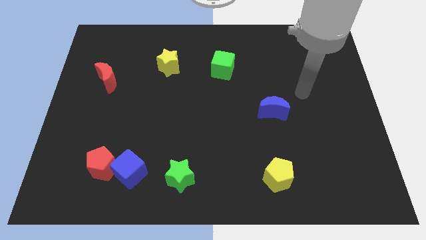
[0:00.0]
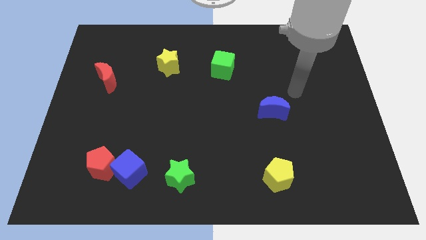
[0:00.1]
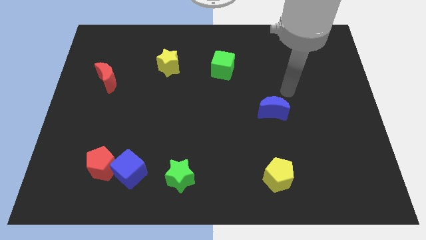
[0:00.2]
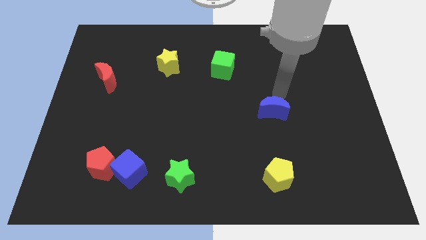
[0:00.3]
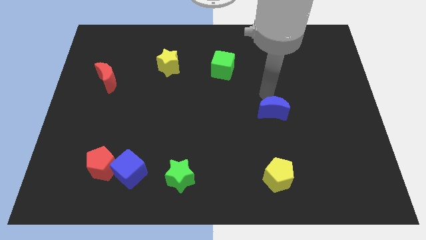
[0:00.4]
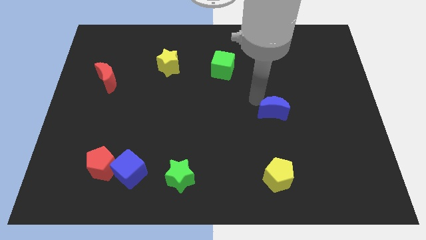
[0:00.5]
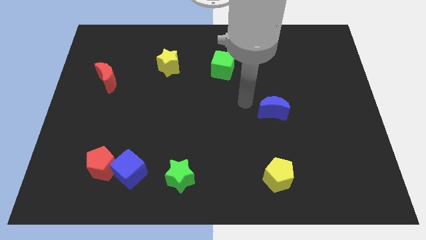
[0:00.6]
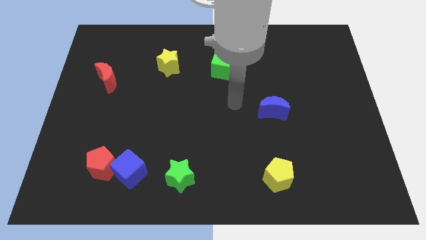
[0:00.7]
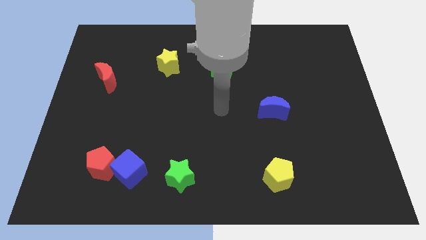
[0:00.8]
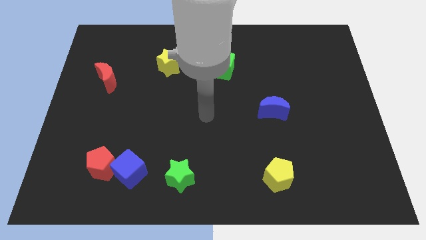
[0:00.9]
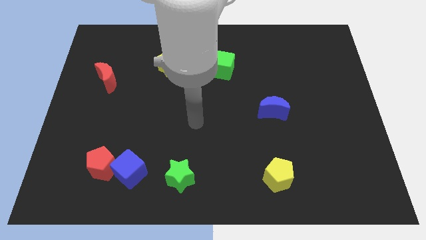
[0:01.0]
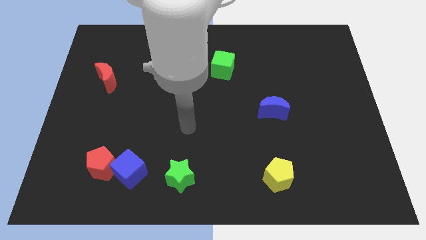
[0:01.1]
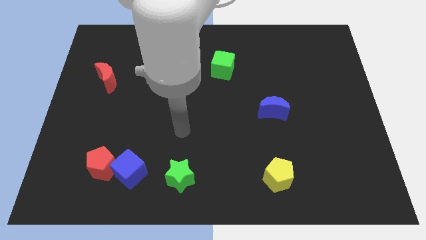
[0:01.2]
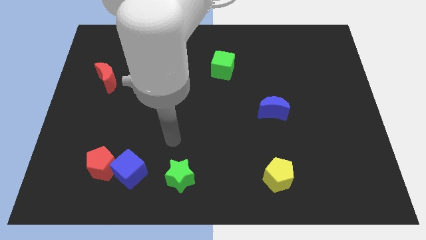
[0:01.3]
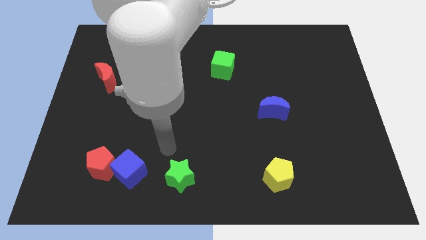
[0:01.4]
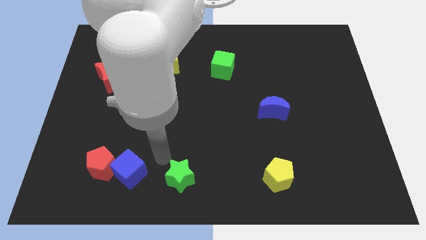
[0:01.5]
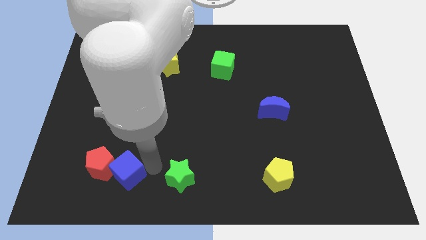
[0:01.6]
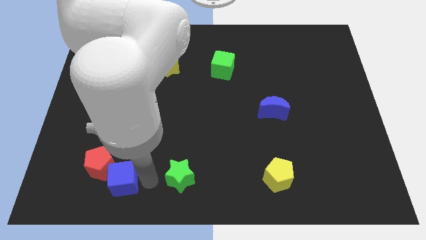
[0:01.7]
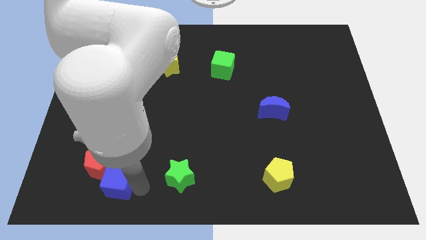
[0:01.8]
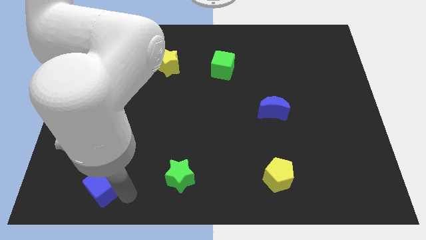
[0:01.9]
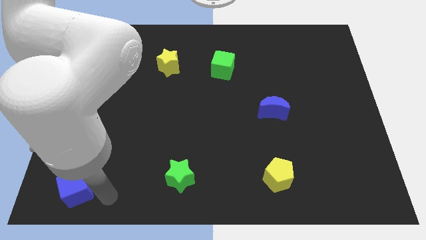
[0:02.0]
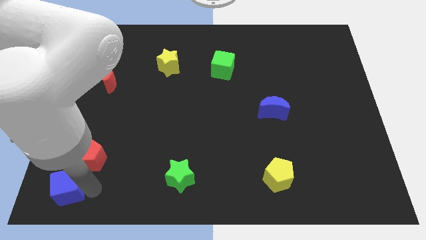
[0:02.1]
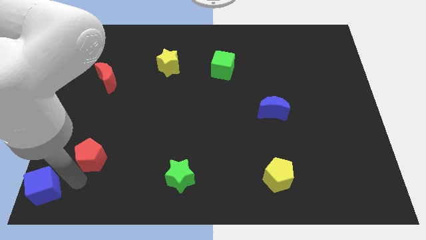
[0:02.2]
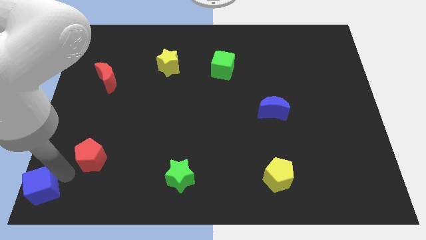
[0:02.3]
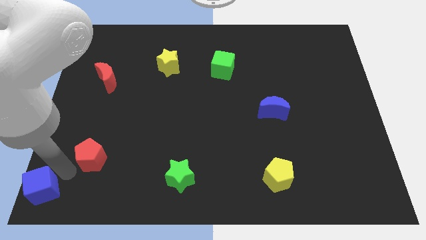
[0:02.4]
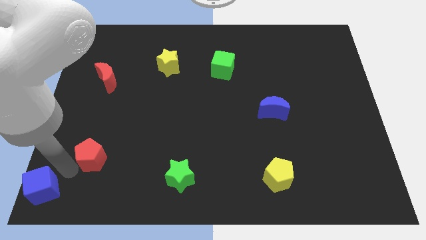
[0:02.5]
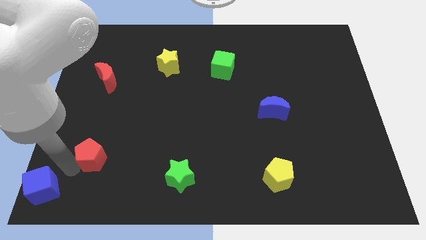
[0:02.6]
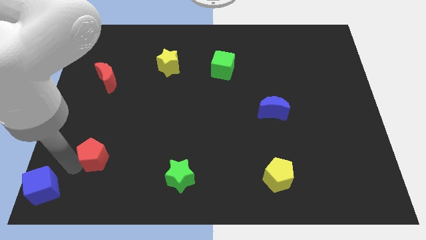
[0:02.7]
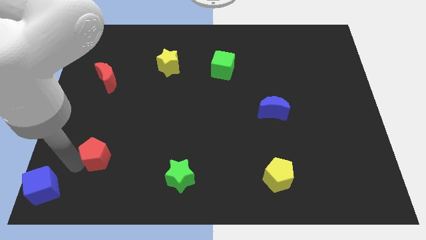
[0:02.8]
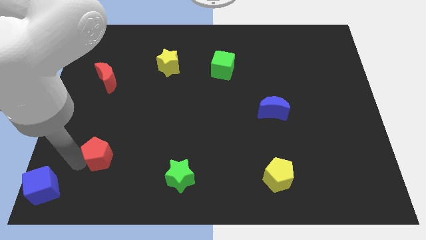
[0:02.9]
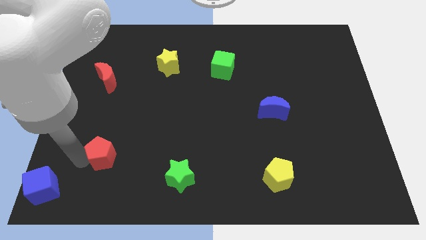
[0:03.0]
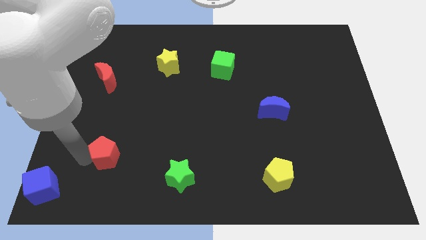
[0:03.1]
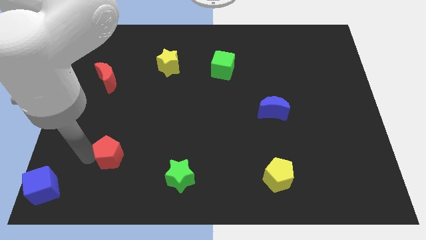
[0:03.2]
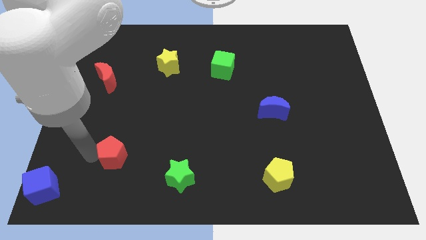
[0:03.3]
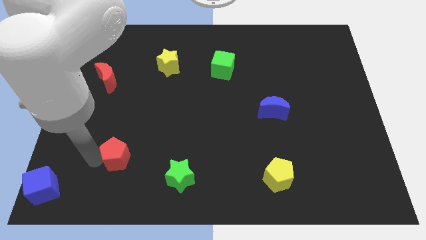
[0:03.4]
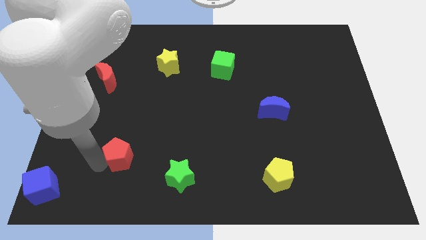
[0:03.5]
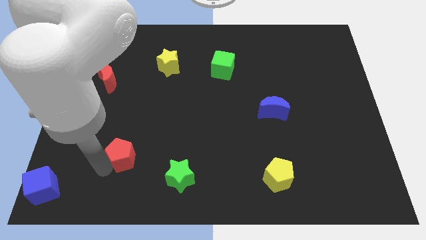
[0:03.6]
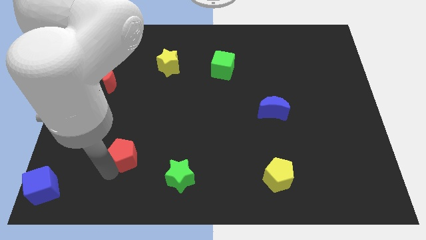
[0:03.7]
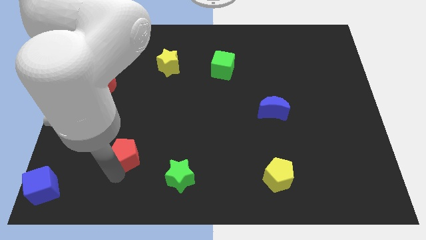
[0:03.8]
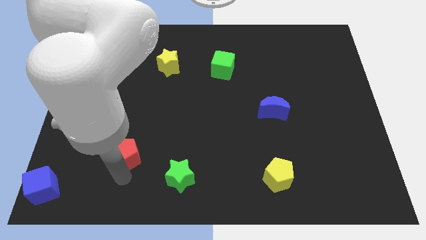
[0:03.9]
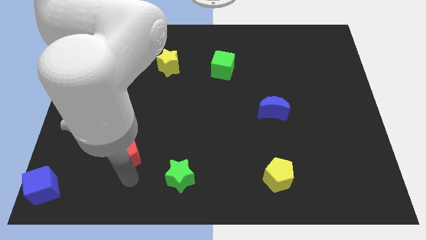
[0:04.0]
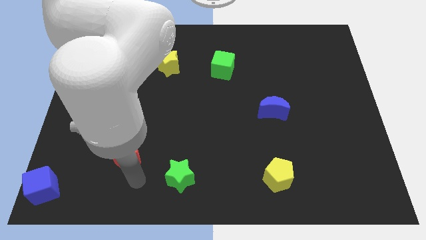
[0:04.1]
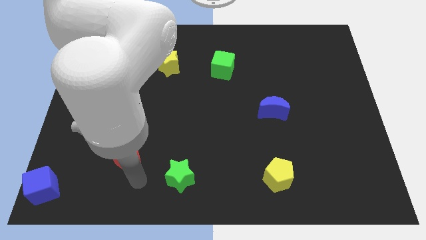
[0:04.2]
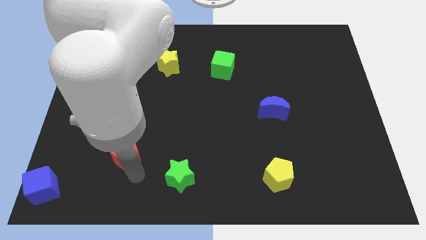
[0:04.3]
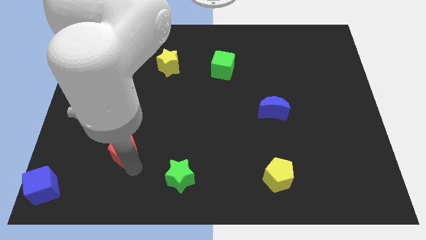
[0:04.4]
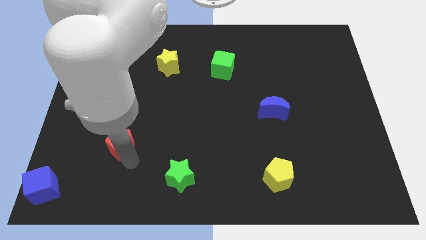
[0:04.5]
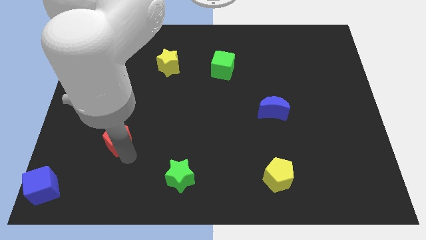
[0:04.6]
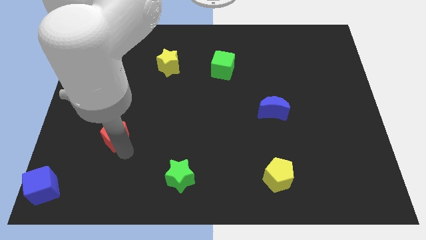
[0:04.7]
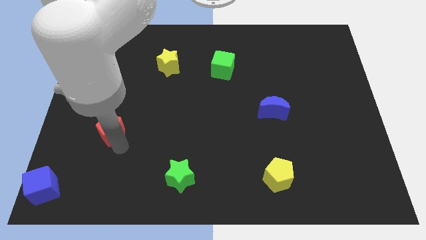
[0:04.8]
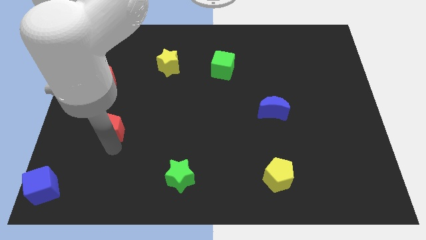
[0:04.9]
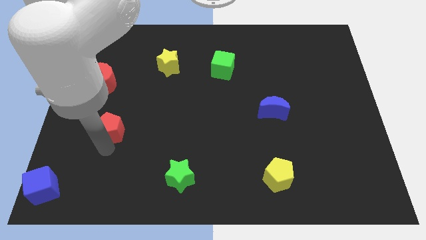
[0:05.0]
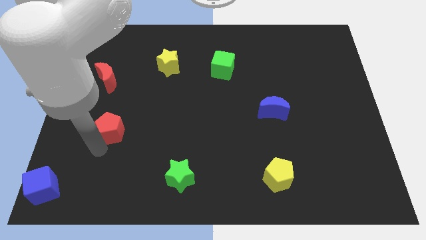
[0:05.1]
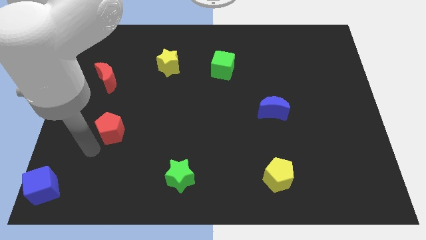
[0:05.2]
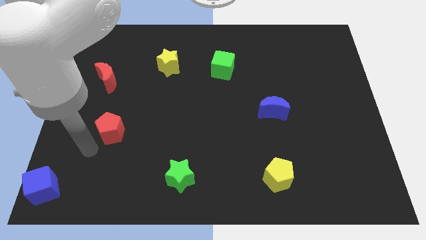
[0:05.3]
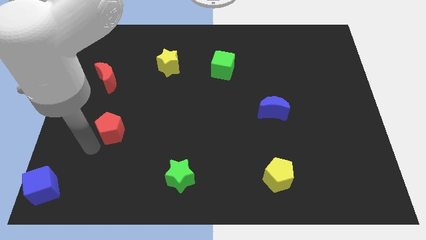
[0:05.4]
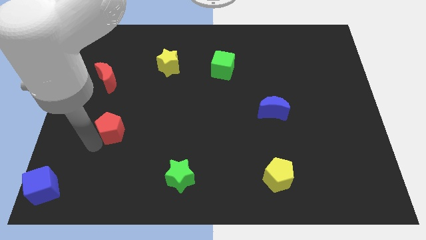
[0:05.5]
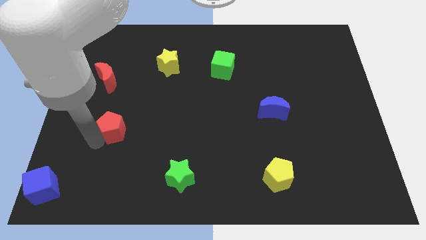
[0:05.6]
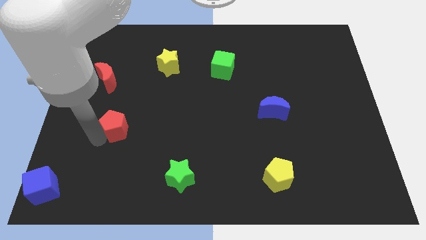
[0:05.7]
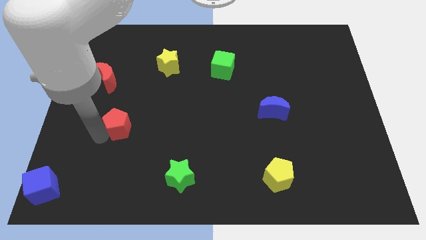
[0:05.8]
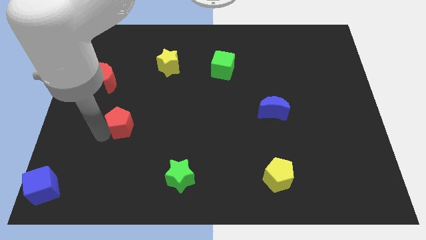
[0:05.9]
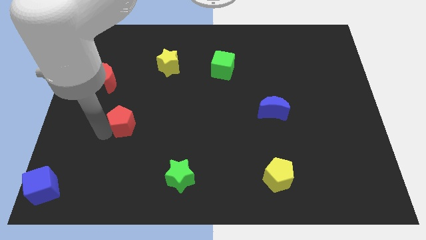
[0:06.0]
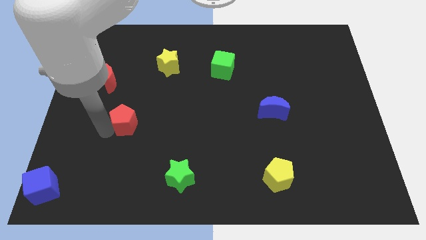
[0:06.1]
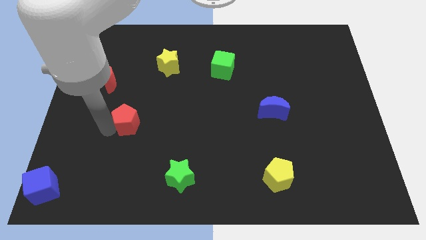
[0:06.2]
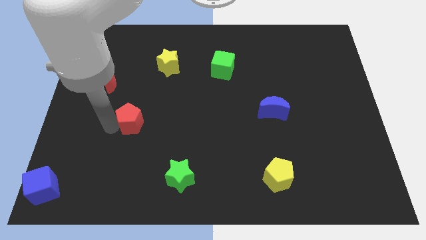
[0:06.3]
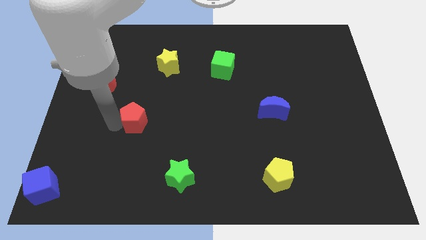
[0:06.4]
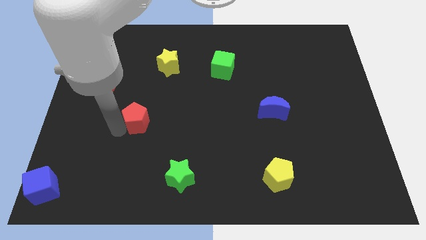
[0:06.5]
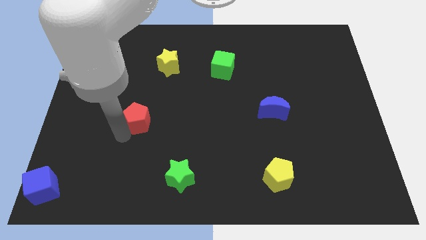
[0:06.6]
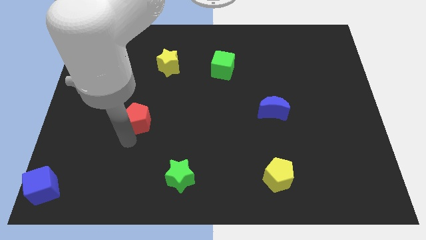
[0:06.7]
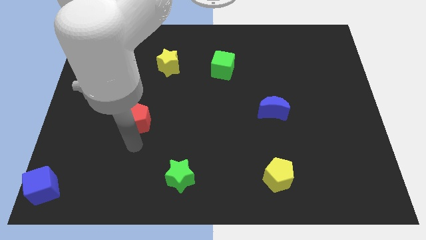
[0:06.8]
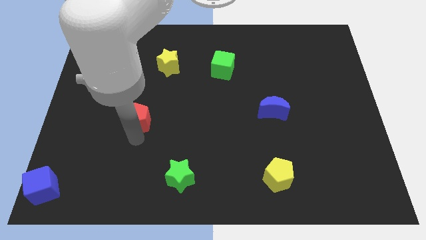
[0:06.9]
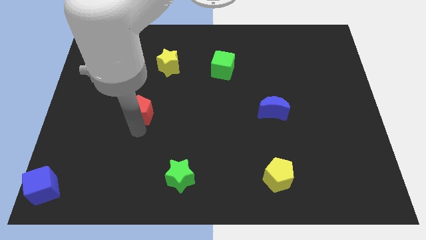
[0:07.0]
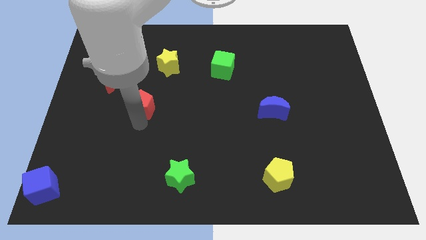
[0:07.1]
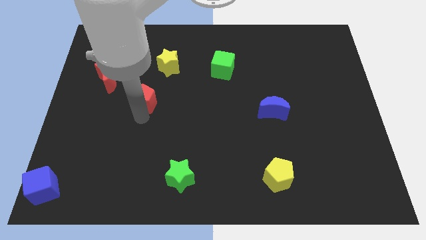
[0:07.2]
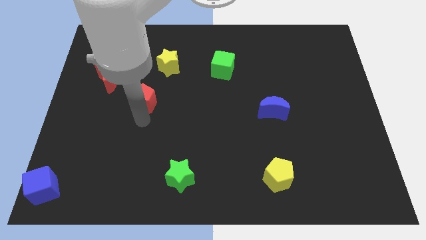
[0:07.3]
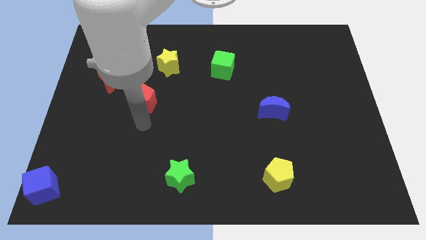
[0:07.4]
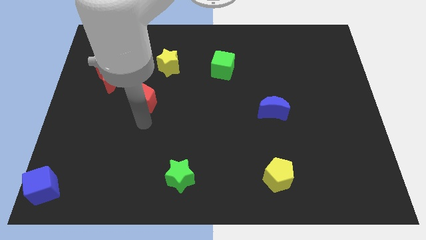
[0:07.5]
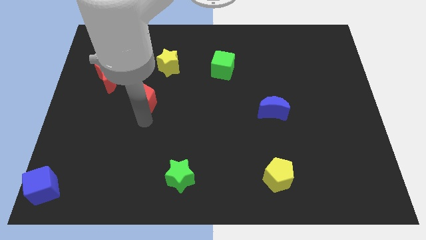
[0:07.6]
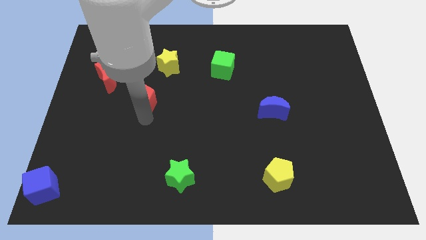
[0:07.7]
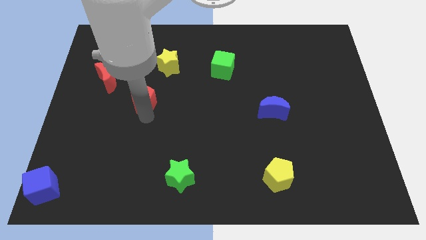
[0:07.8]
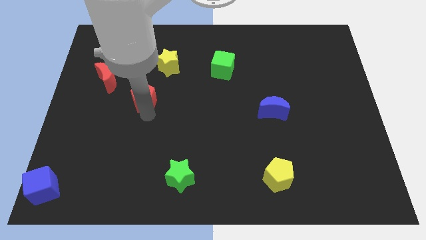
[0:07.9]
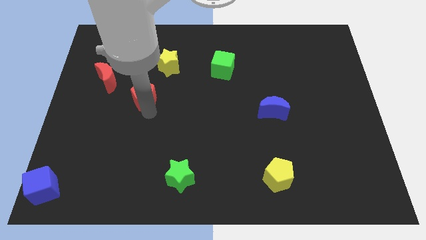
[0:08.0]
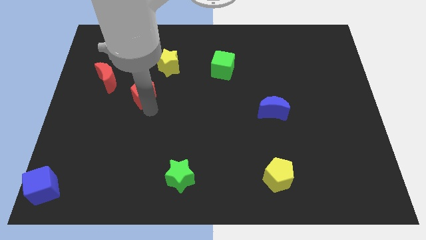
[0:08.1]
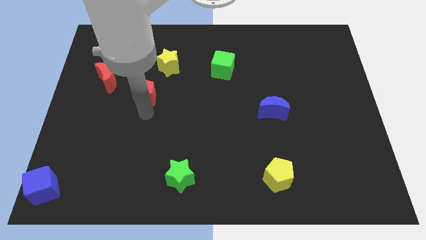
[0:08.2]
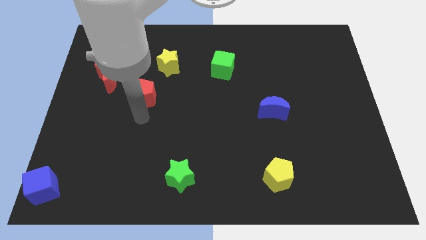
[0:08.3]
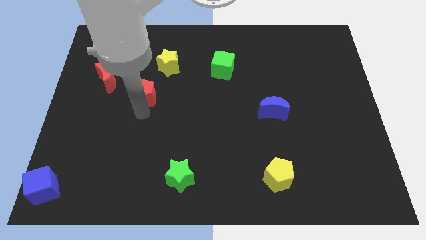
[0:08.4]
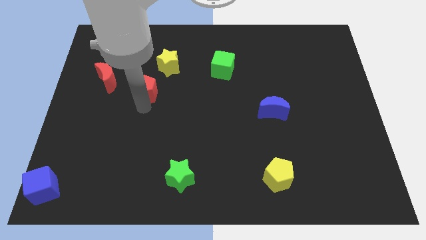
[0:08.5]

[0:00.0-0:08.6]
put the red pentagon to the right of the red moon
